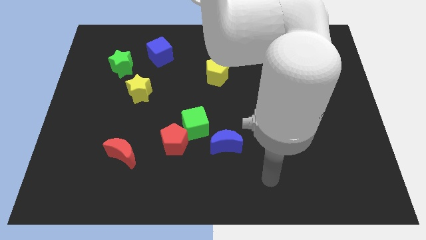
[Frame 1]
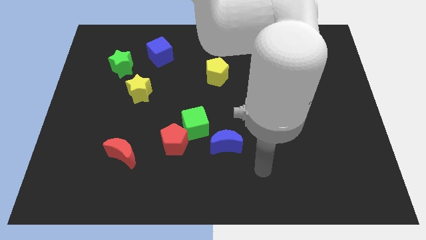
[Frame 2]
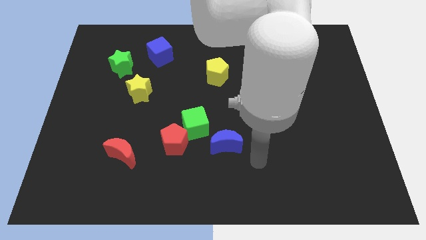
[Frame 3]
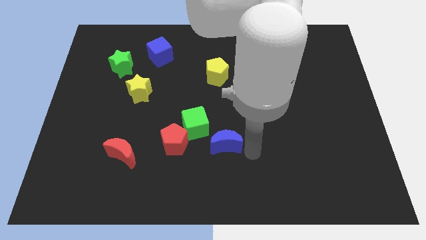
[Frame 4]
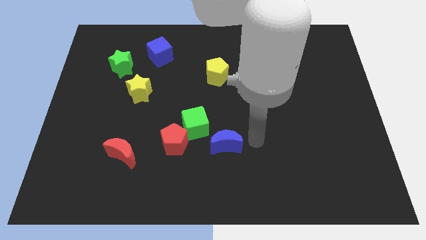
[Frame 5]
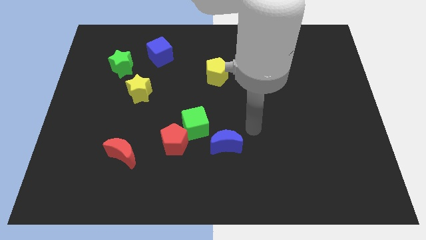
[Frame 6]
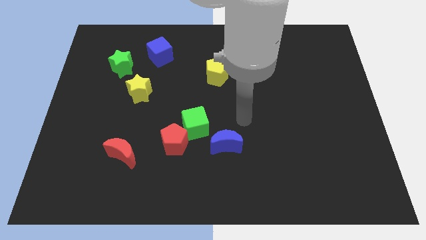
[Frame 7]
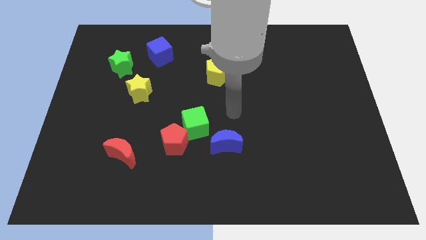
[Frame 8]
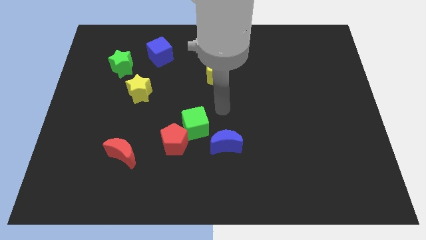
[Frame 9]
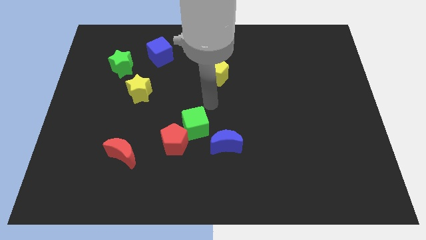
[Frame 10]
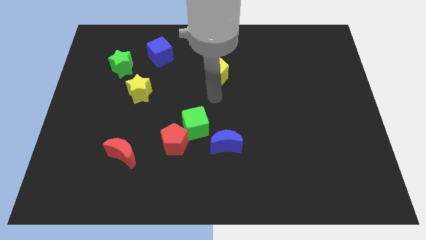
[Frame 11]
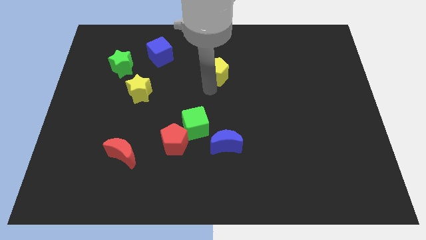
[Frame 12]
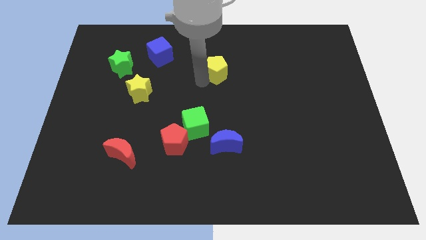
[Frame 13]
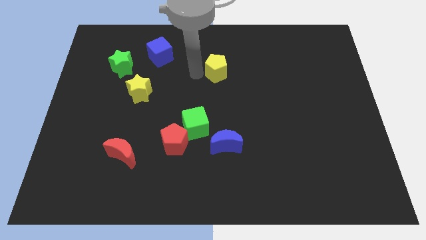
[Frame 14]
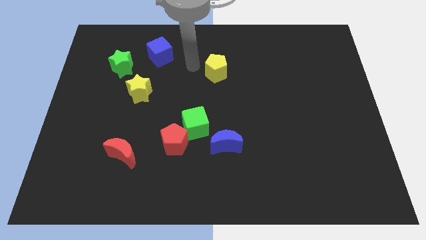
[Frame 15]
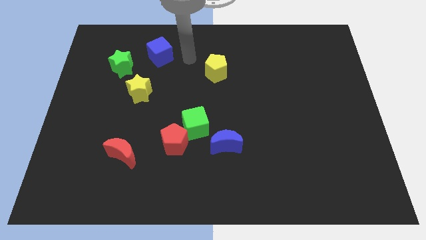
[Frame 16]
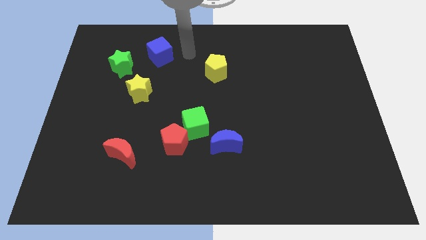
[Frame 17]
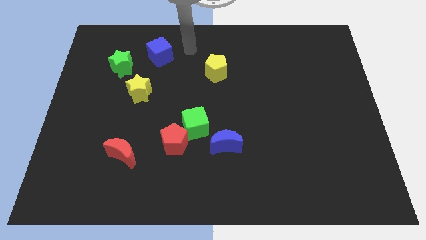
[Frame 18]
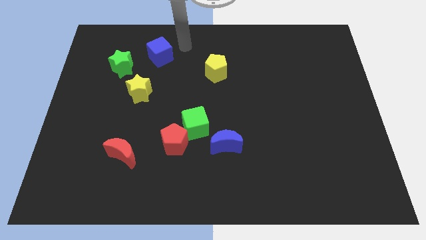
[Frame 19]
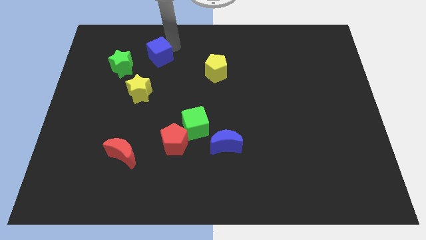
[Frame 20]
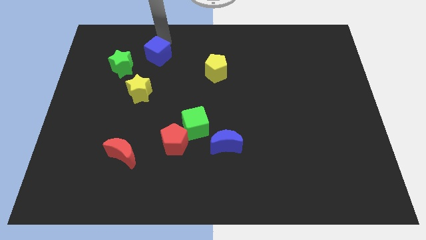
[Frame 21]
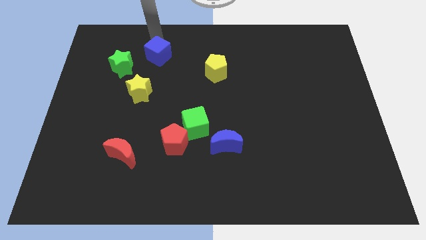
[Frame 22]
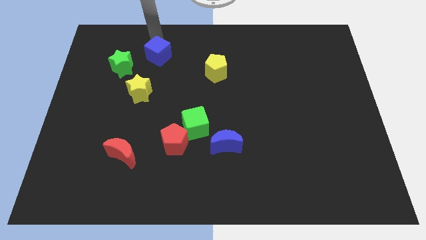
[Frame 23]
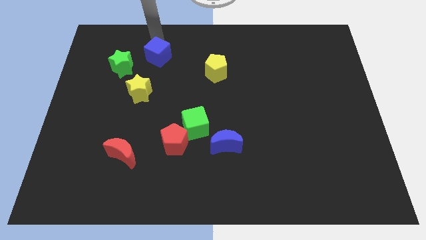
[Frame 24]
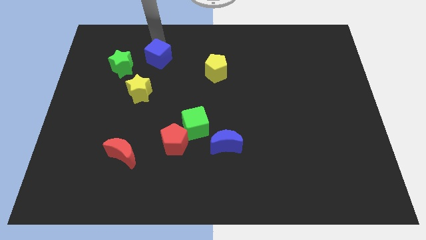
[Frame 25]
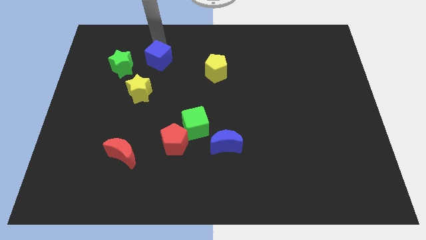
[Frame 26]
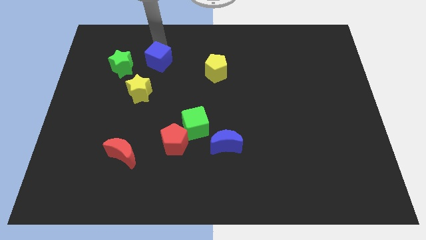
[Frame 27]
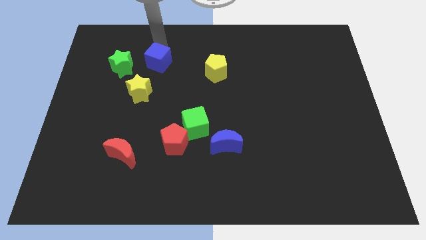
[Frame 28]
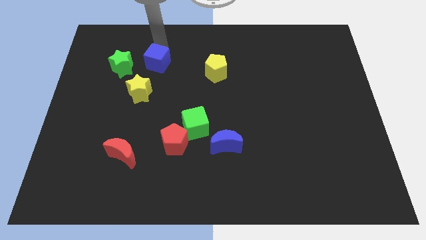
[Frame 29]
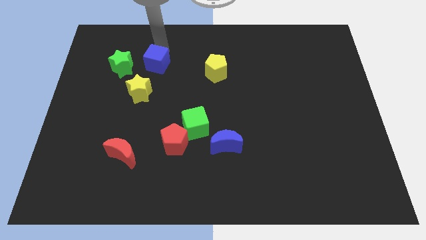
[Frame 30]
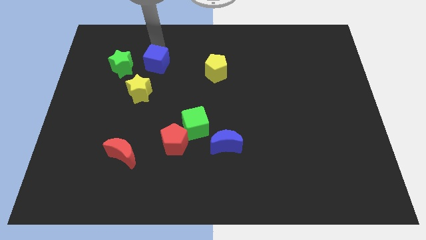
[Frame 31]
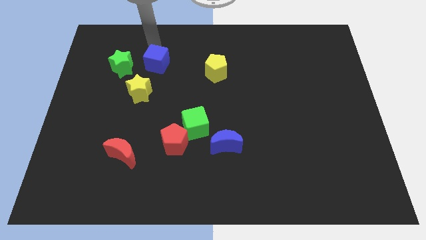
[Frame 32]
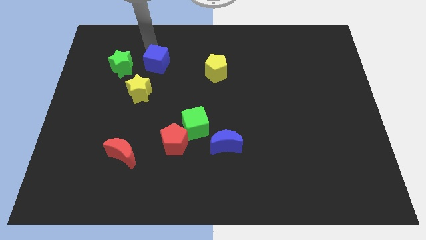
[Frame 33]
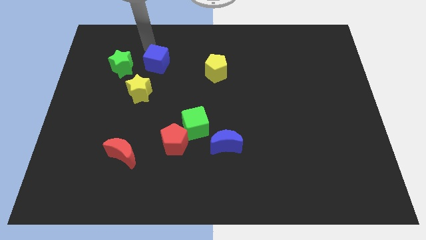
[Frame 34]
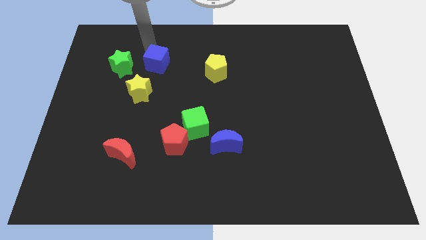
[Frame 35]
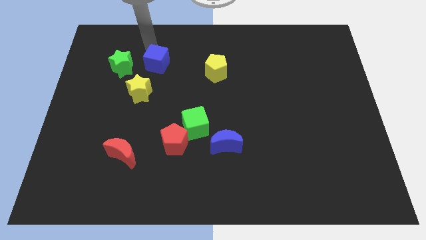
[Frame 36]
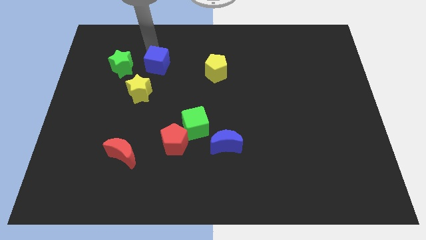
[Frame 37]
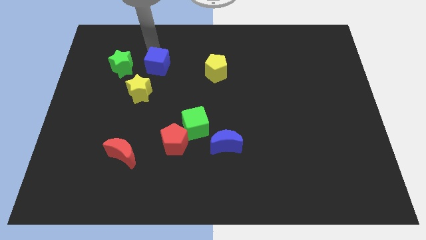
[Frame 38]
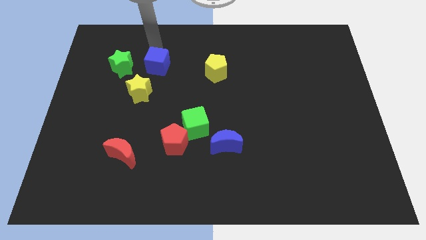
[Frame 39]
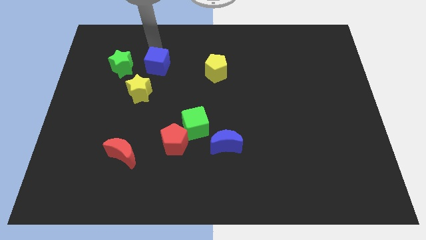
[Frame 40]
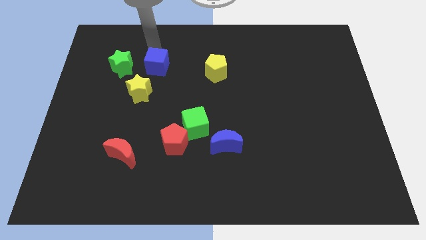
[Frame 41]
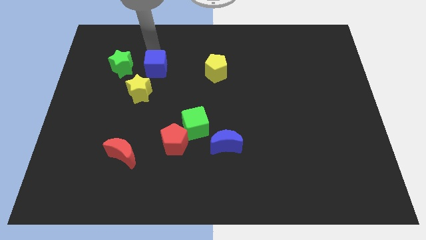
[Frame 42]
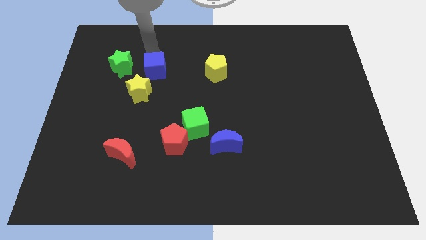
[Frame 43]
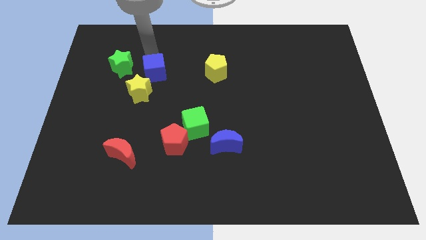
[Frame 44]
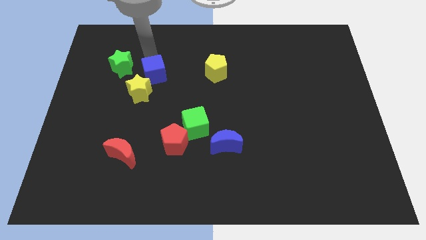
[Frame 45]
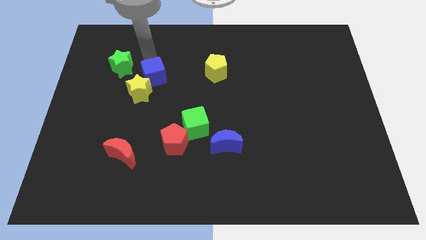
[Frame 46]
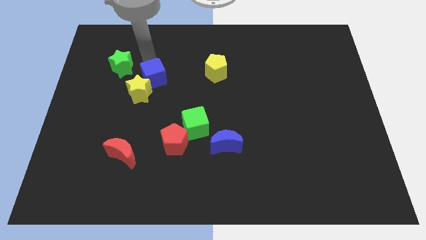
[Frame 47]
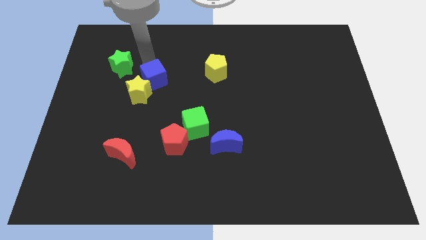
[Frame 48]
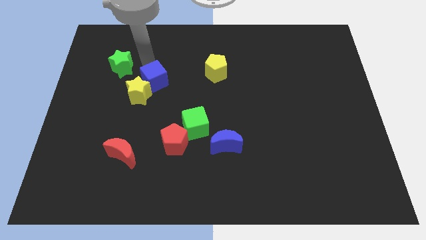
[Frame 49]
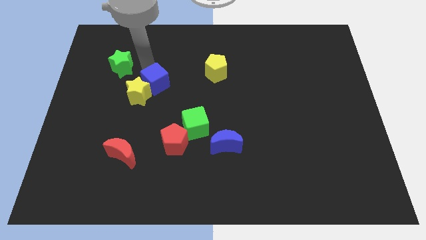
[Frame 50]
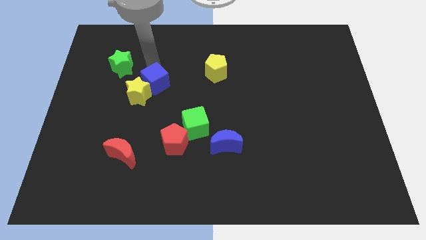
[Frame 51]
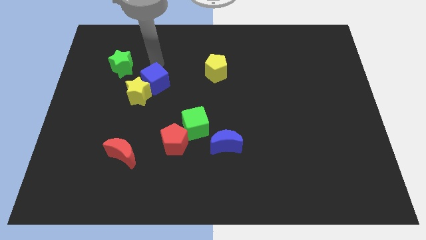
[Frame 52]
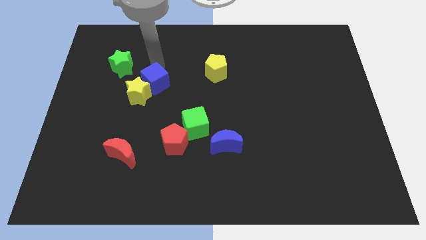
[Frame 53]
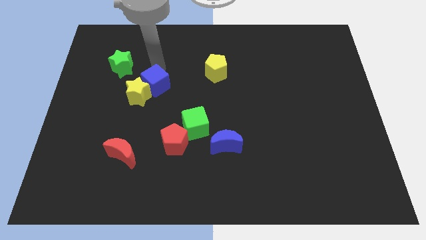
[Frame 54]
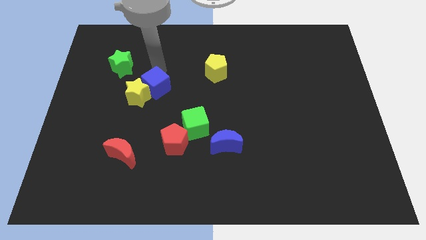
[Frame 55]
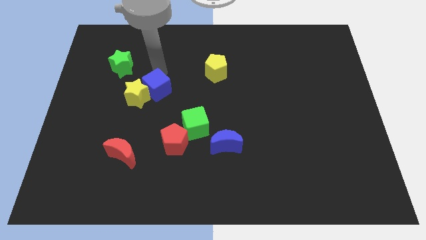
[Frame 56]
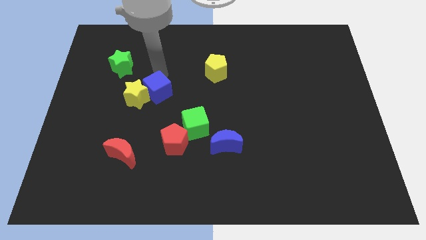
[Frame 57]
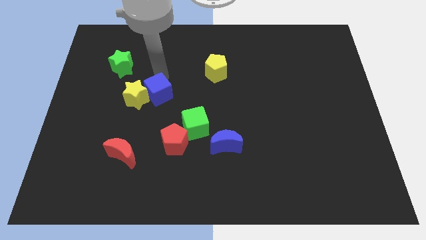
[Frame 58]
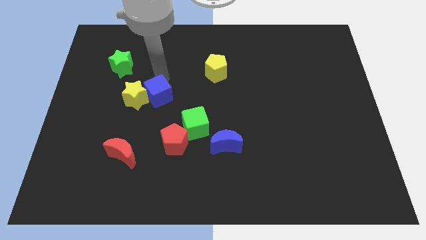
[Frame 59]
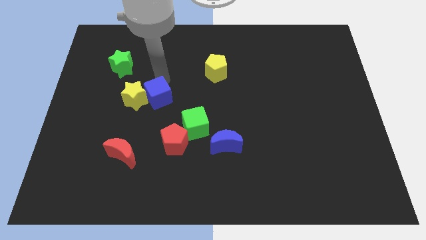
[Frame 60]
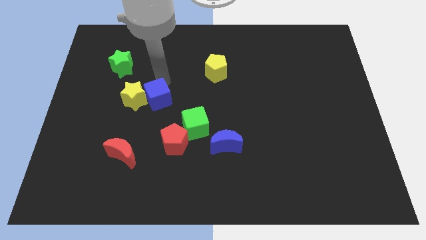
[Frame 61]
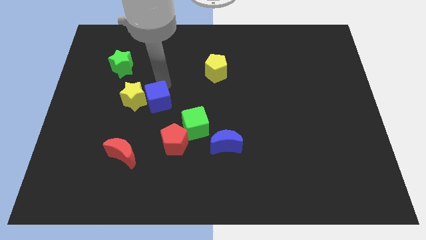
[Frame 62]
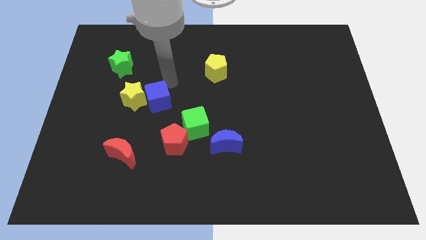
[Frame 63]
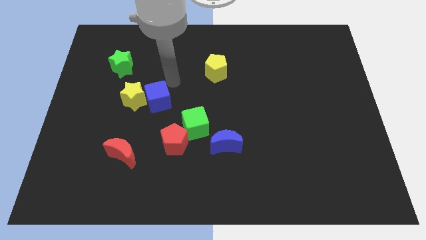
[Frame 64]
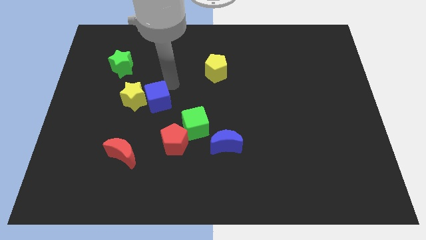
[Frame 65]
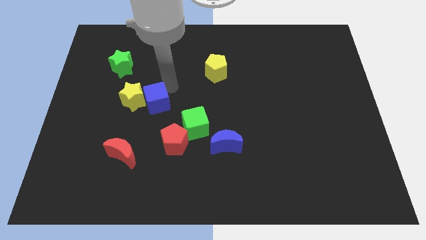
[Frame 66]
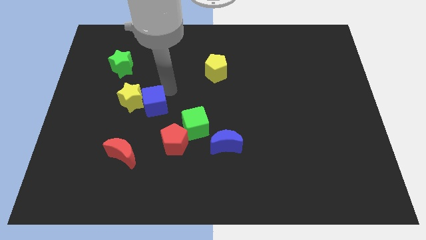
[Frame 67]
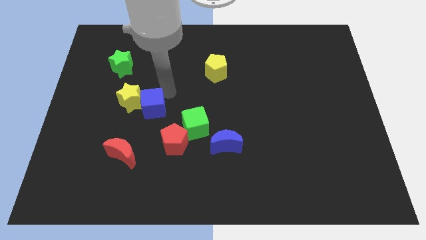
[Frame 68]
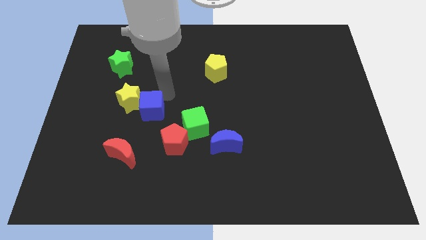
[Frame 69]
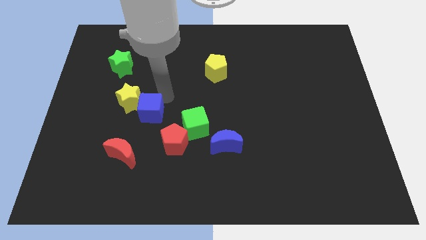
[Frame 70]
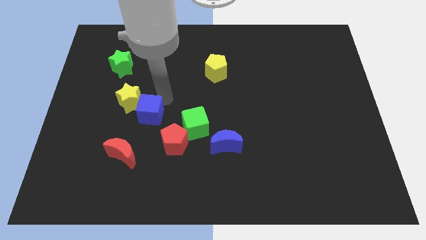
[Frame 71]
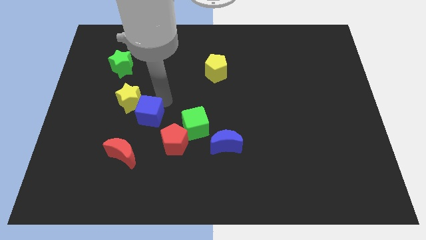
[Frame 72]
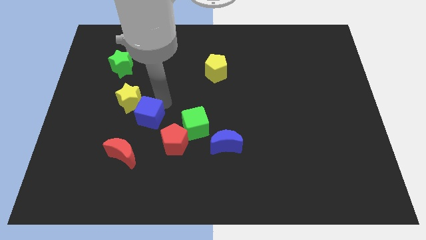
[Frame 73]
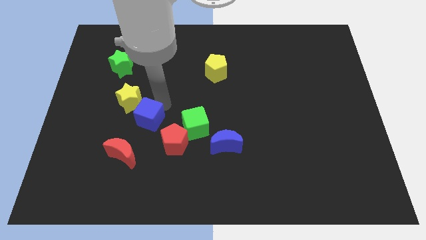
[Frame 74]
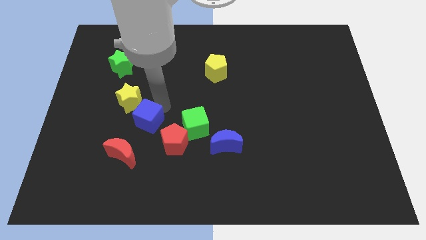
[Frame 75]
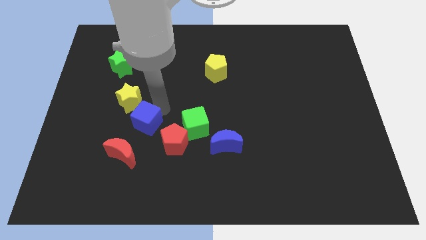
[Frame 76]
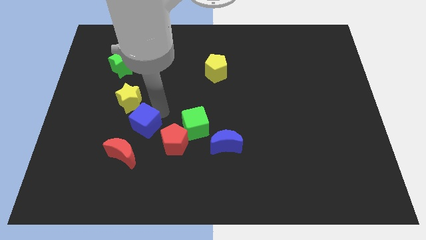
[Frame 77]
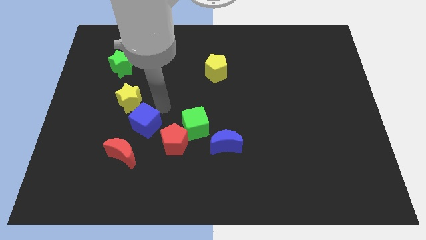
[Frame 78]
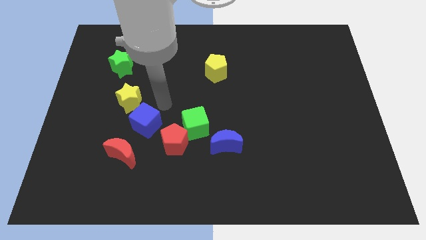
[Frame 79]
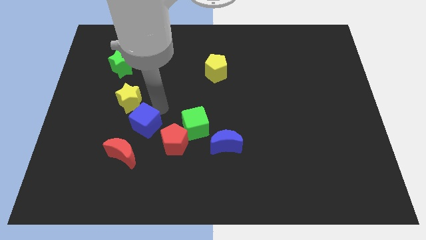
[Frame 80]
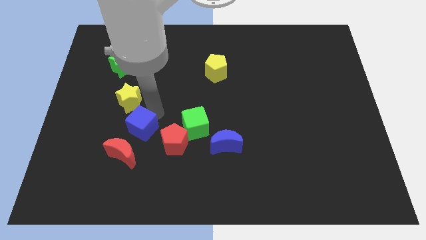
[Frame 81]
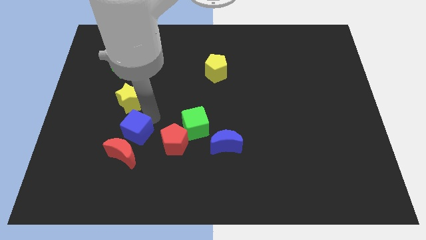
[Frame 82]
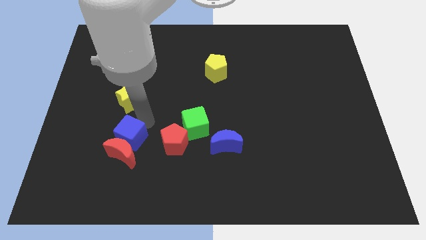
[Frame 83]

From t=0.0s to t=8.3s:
push the blue cube towards the red moon
